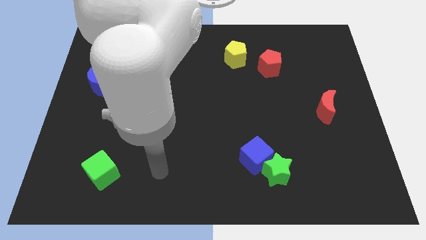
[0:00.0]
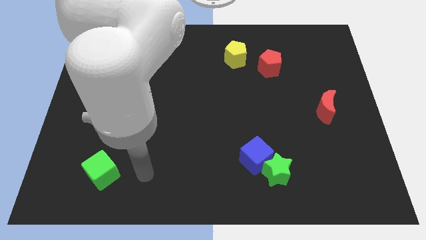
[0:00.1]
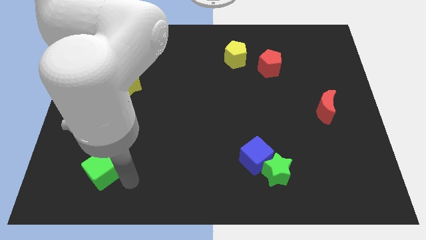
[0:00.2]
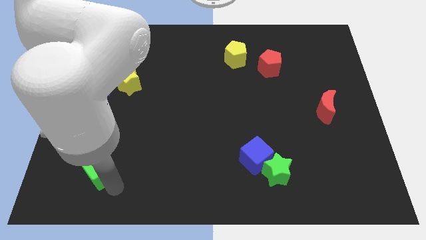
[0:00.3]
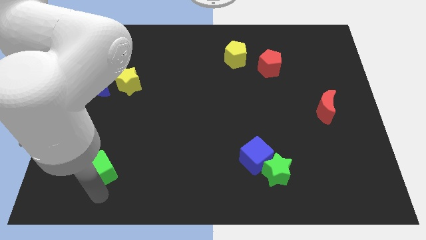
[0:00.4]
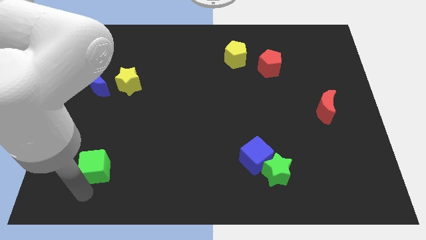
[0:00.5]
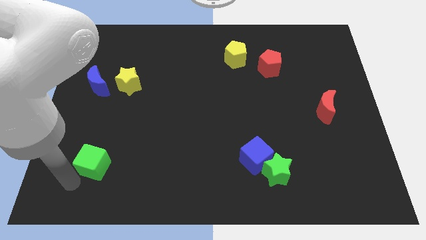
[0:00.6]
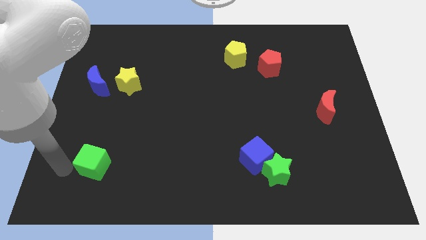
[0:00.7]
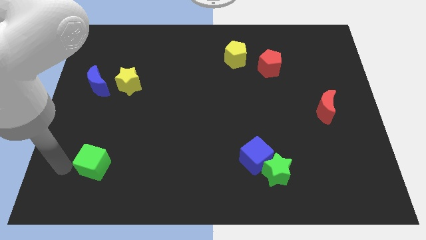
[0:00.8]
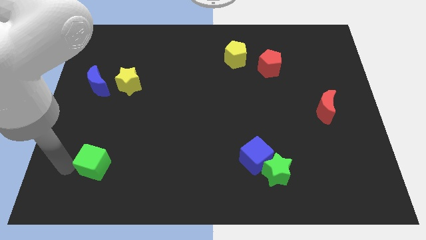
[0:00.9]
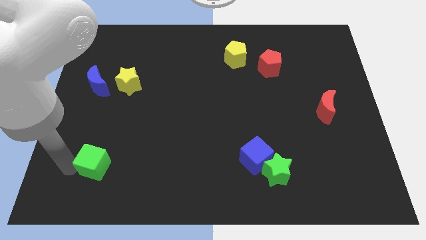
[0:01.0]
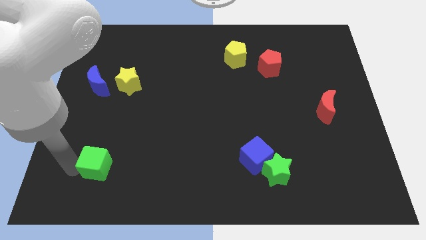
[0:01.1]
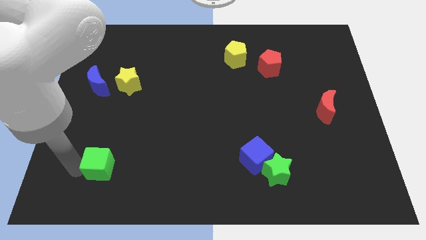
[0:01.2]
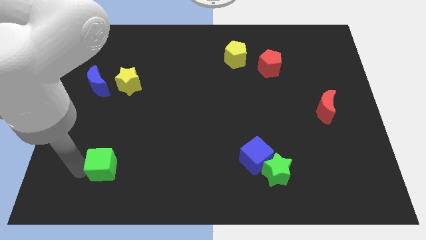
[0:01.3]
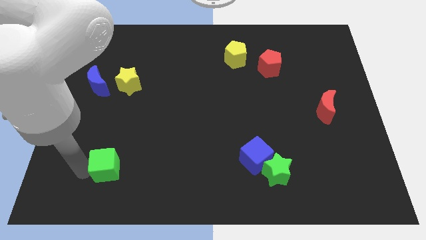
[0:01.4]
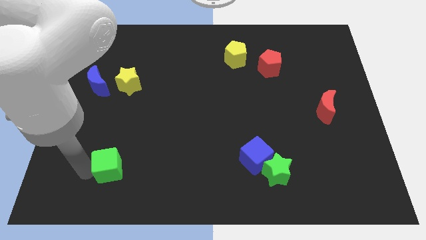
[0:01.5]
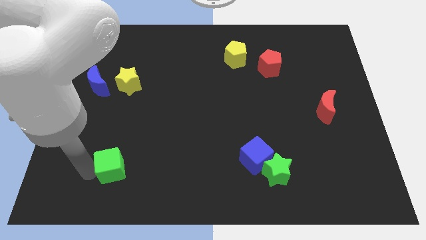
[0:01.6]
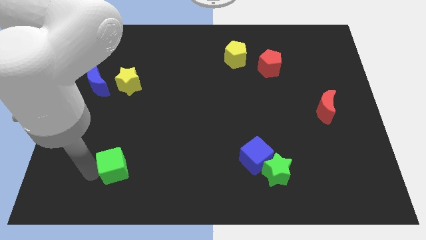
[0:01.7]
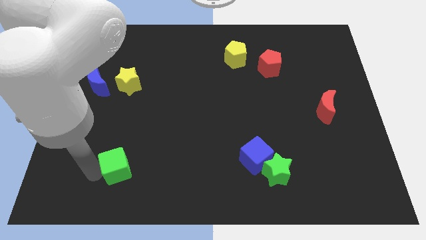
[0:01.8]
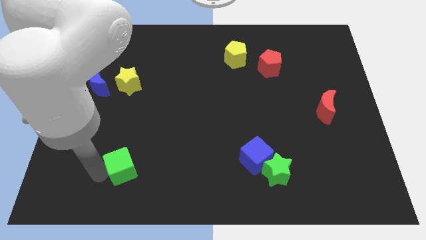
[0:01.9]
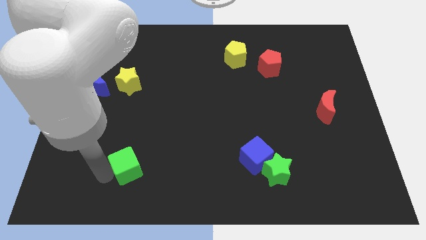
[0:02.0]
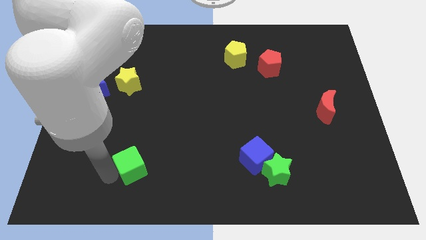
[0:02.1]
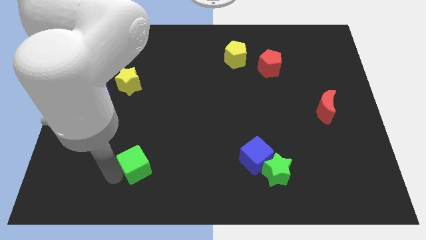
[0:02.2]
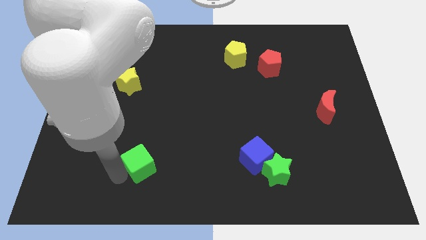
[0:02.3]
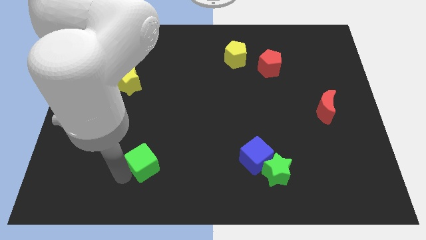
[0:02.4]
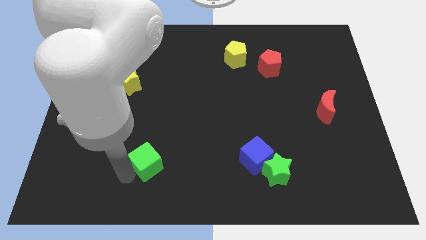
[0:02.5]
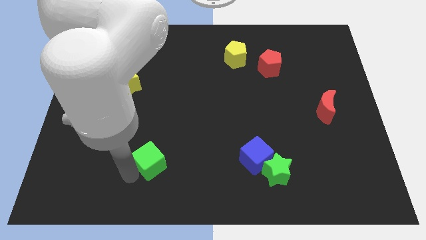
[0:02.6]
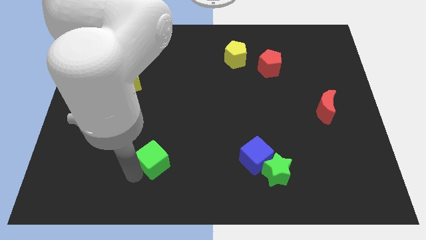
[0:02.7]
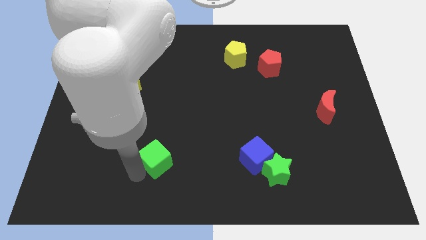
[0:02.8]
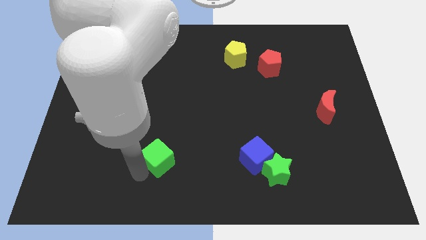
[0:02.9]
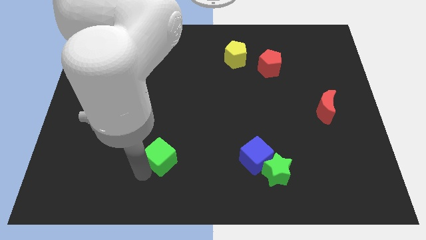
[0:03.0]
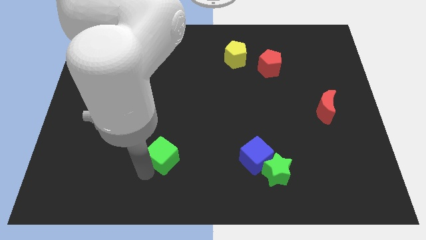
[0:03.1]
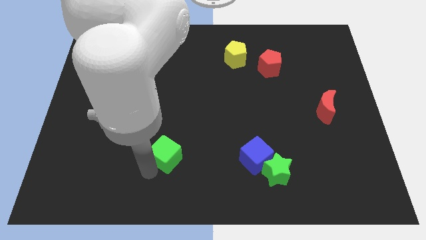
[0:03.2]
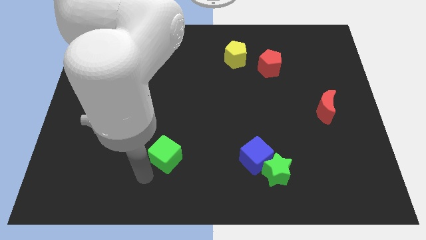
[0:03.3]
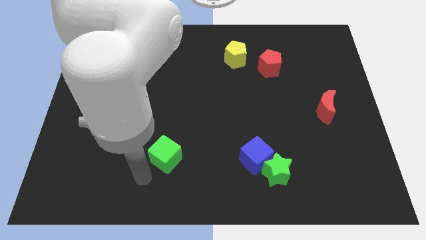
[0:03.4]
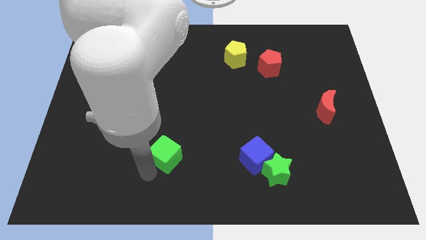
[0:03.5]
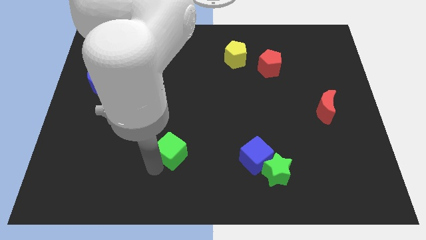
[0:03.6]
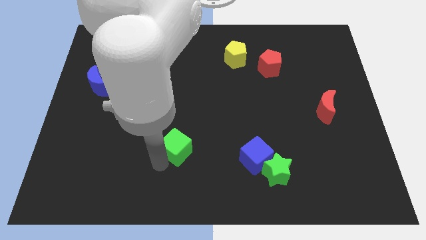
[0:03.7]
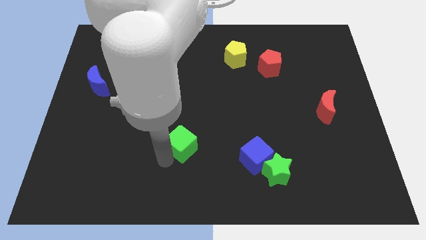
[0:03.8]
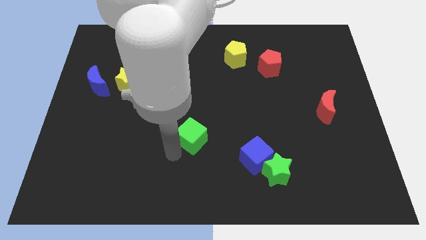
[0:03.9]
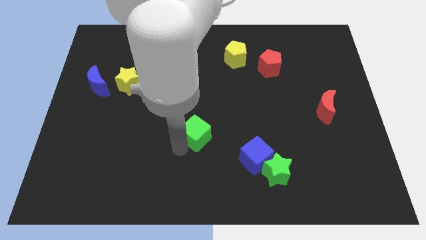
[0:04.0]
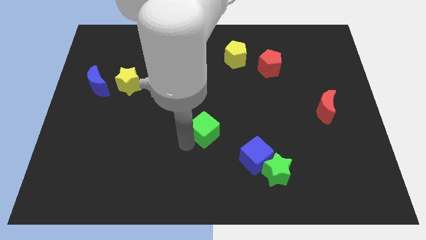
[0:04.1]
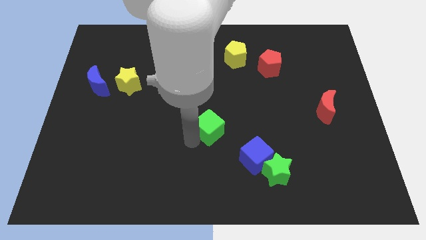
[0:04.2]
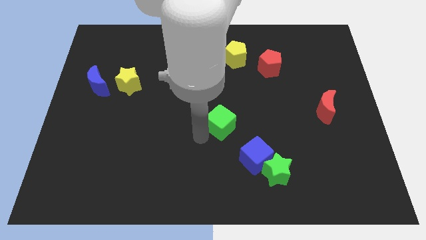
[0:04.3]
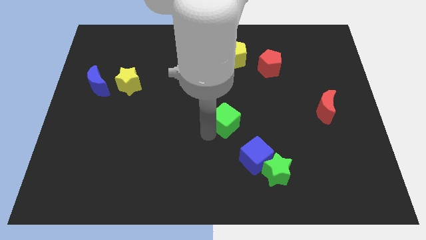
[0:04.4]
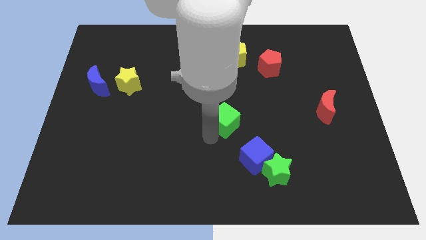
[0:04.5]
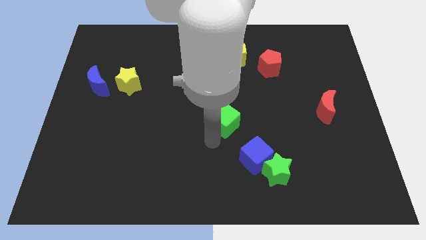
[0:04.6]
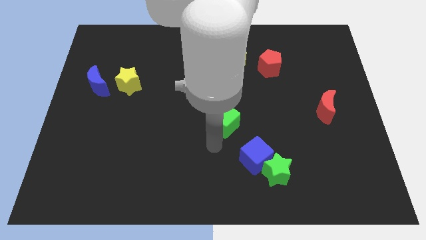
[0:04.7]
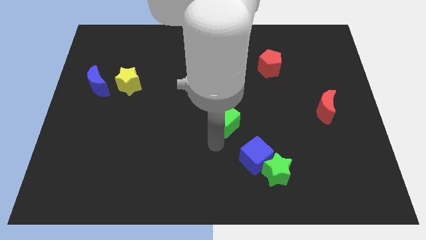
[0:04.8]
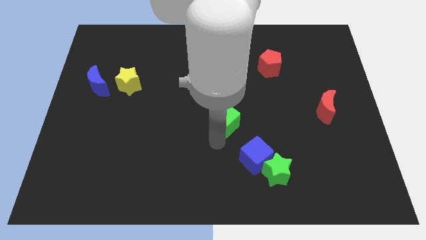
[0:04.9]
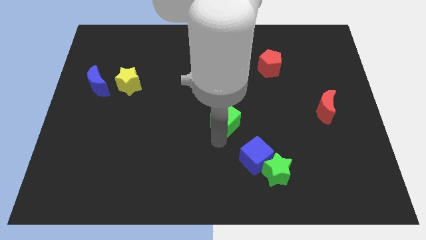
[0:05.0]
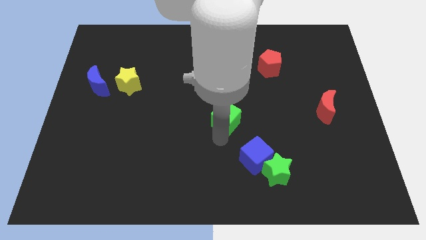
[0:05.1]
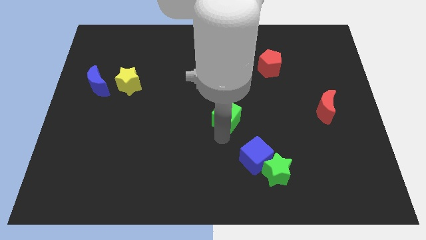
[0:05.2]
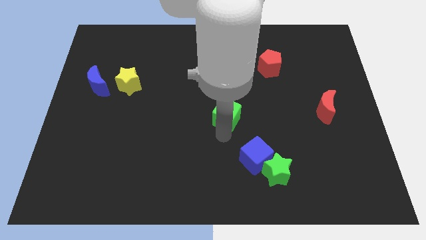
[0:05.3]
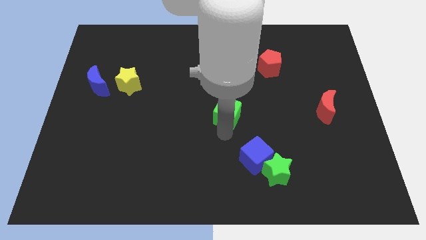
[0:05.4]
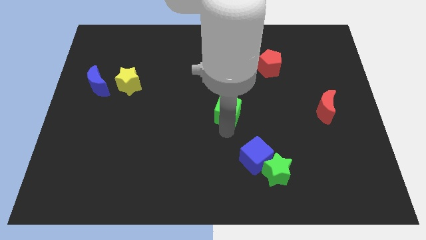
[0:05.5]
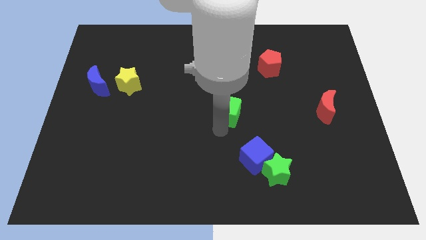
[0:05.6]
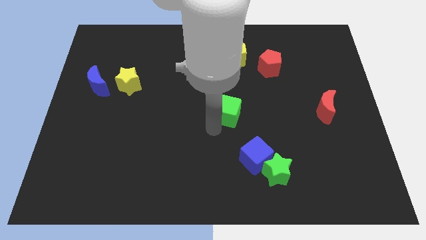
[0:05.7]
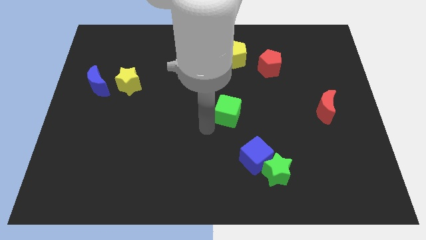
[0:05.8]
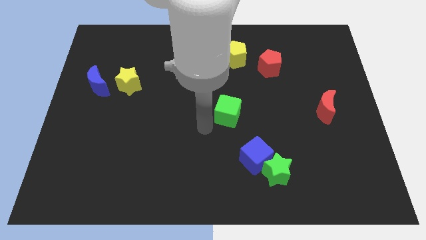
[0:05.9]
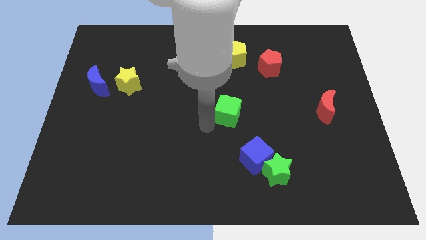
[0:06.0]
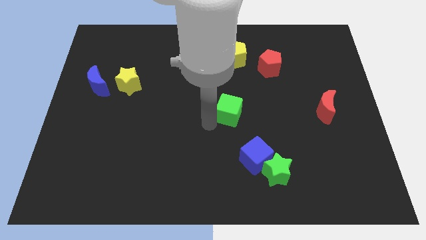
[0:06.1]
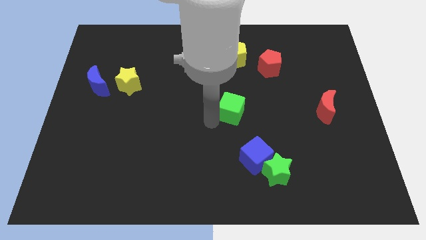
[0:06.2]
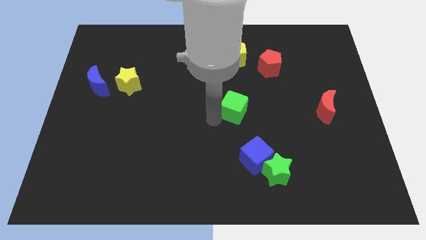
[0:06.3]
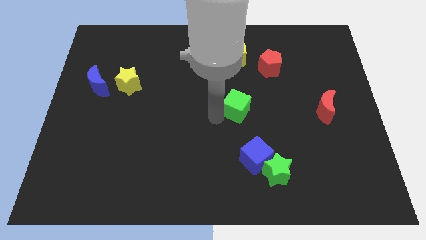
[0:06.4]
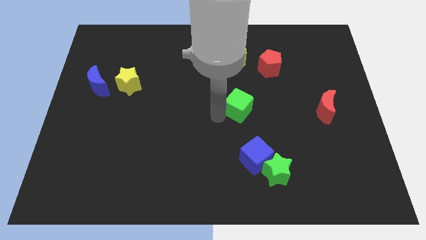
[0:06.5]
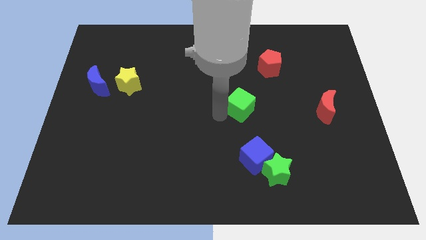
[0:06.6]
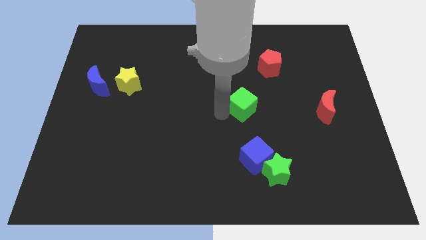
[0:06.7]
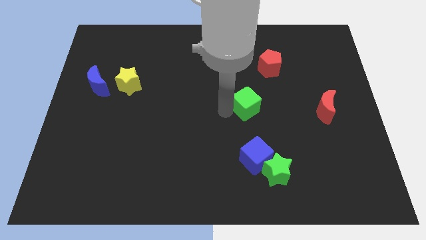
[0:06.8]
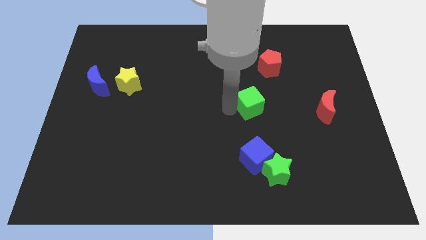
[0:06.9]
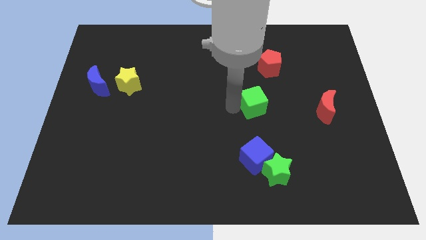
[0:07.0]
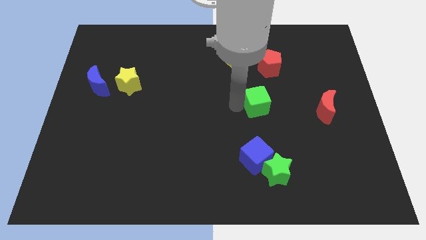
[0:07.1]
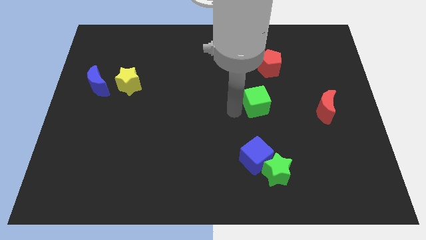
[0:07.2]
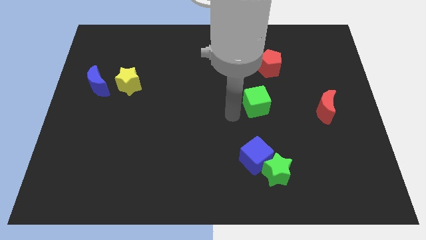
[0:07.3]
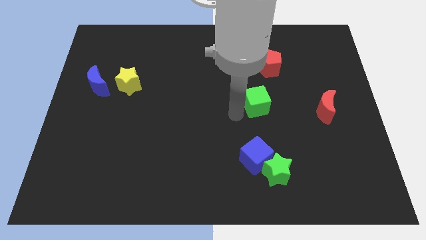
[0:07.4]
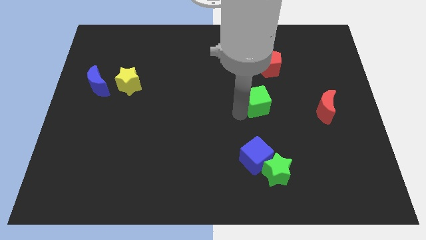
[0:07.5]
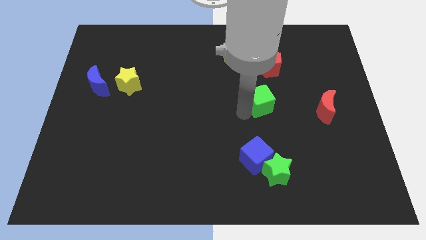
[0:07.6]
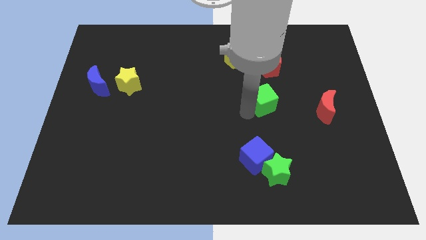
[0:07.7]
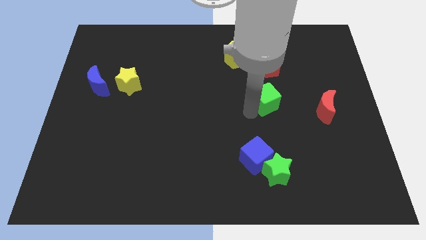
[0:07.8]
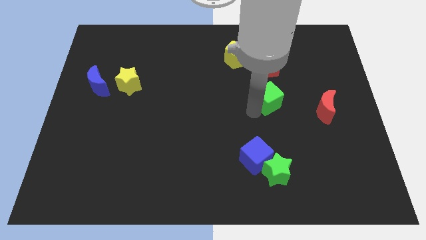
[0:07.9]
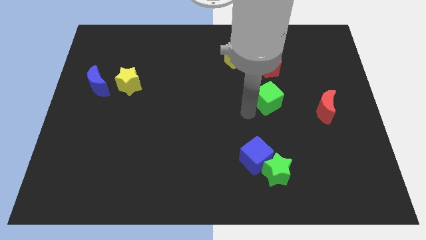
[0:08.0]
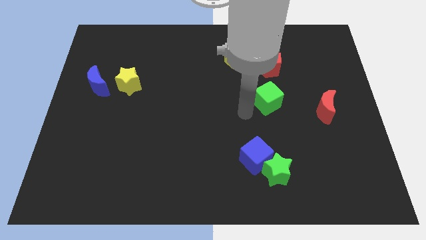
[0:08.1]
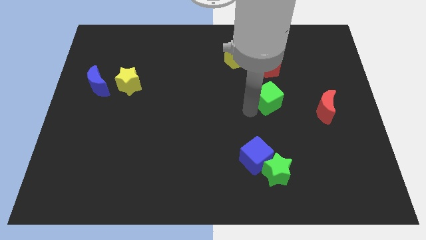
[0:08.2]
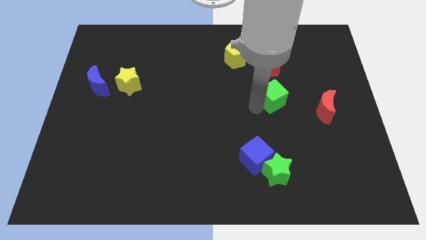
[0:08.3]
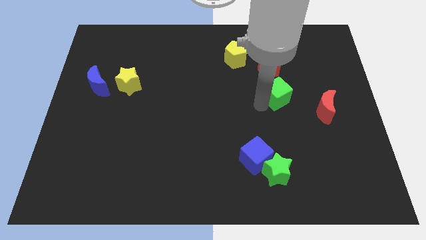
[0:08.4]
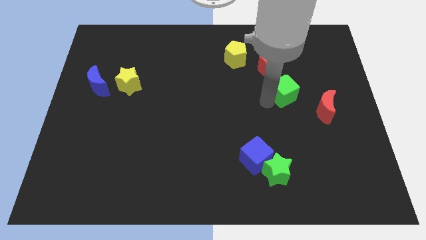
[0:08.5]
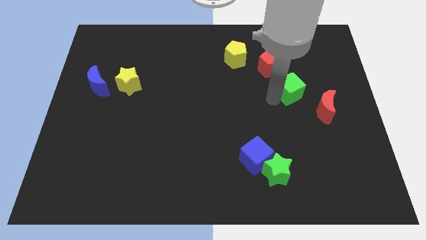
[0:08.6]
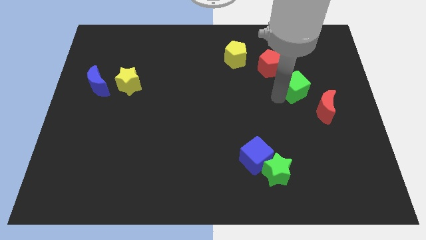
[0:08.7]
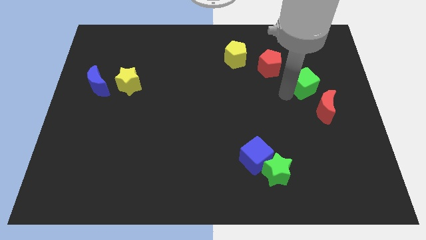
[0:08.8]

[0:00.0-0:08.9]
slide the green cube above the red moon
